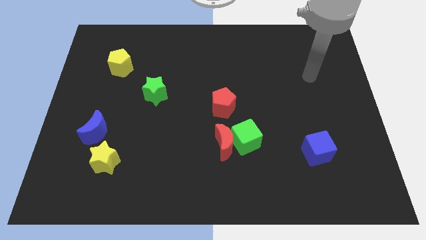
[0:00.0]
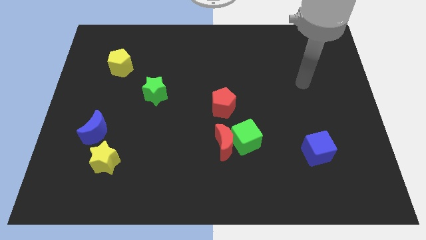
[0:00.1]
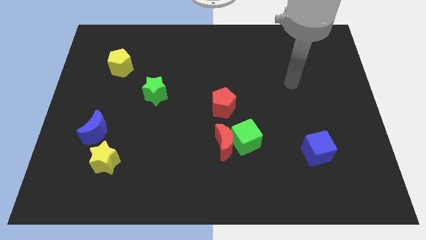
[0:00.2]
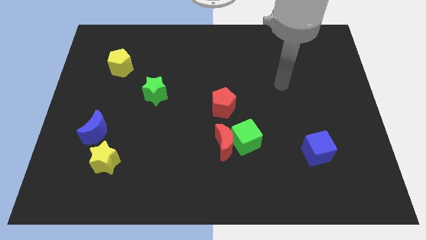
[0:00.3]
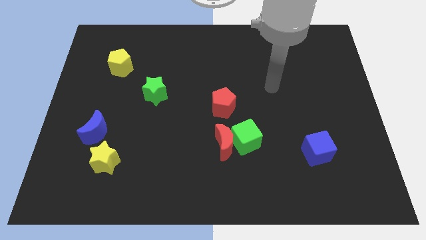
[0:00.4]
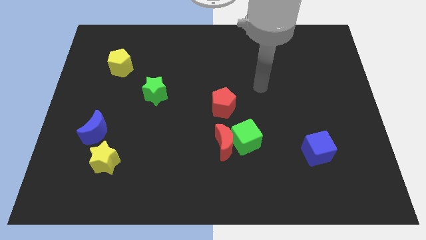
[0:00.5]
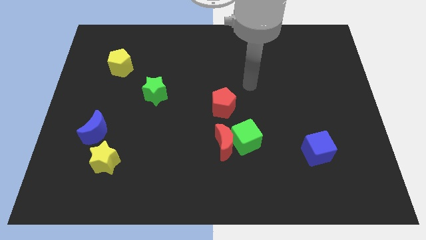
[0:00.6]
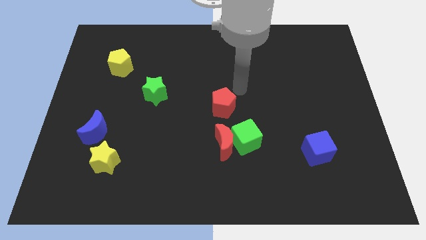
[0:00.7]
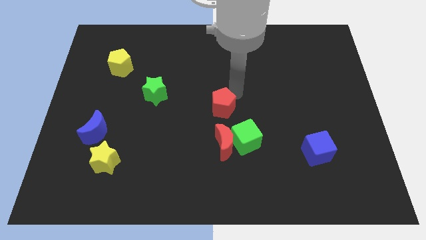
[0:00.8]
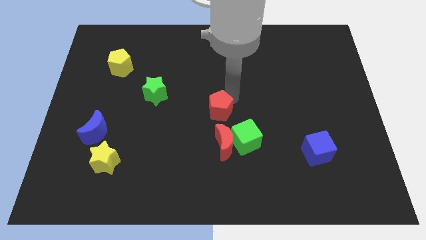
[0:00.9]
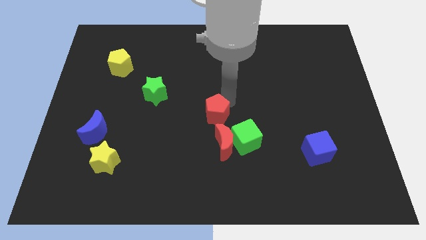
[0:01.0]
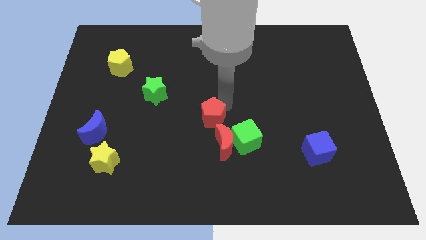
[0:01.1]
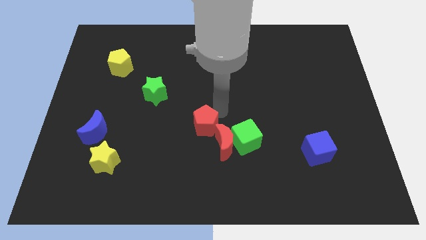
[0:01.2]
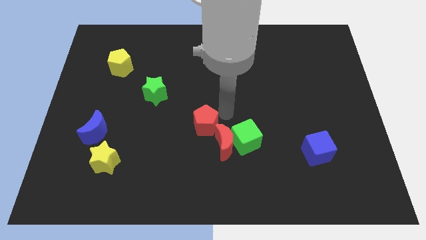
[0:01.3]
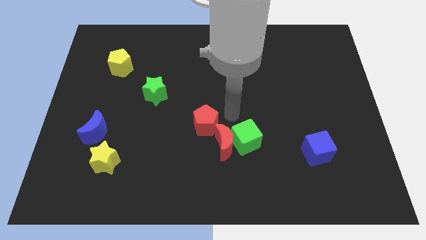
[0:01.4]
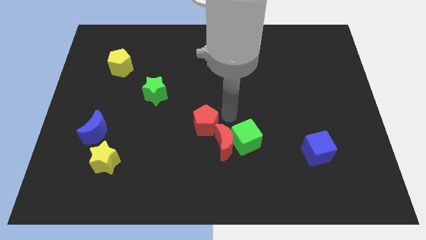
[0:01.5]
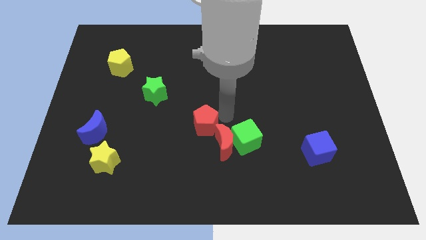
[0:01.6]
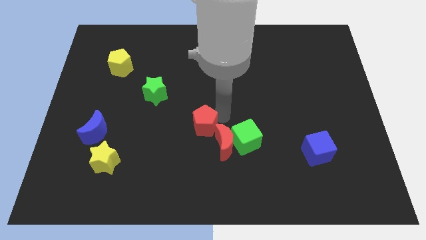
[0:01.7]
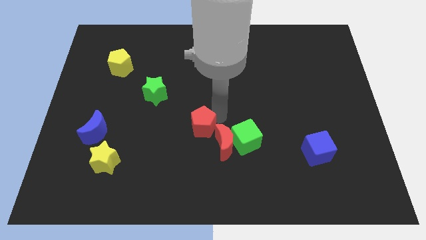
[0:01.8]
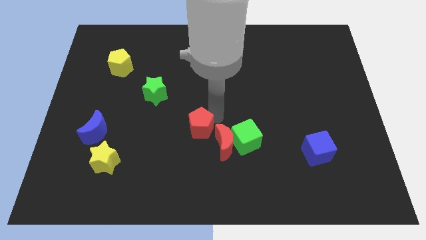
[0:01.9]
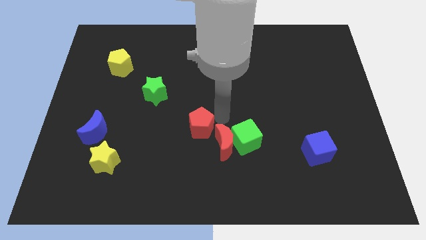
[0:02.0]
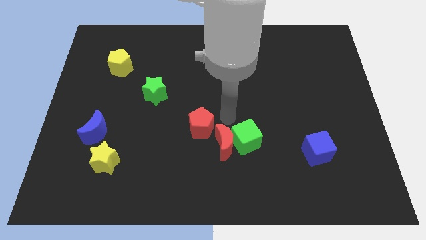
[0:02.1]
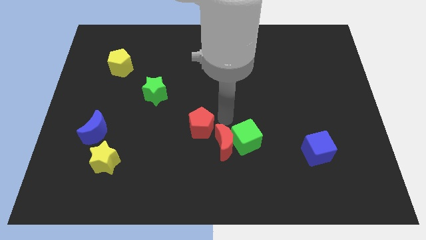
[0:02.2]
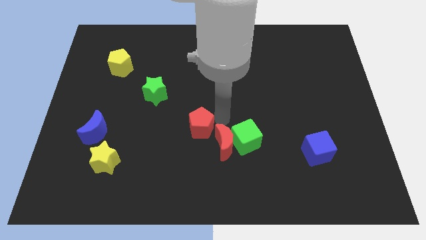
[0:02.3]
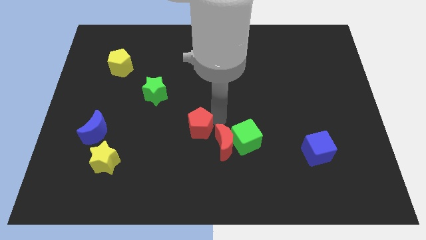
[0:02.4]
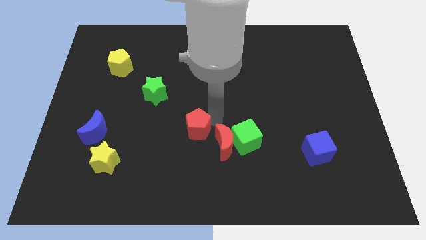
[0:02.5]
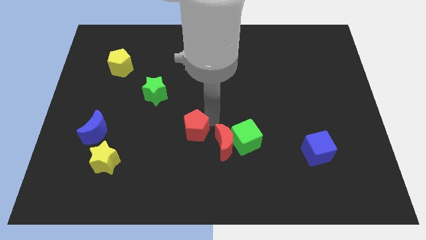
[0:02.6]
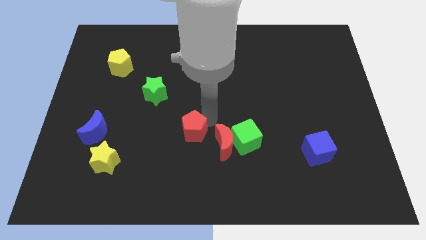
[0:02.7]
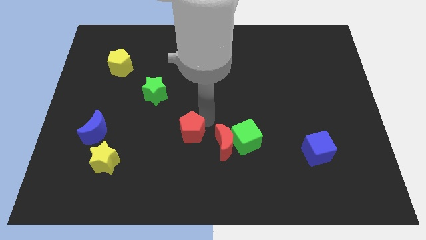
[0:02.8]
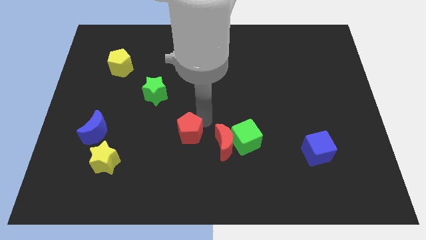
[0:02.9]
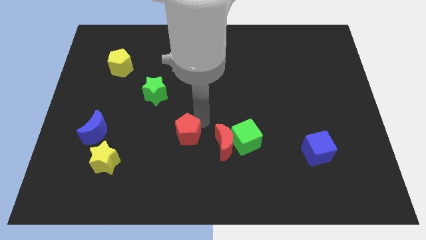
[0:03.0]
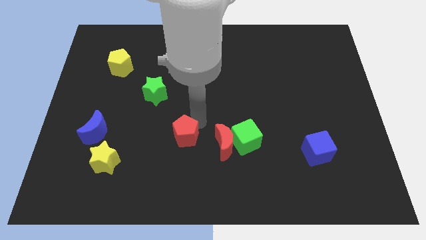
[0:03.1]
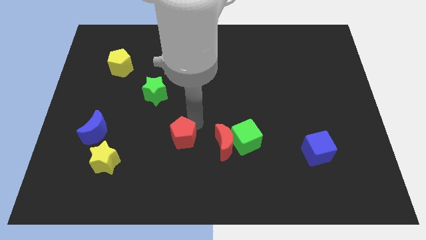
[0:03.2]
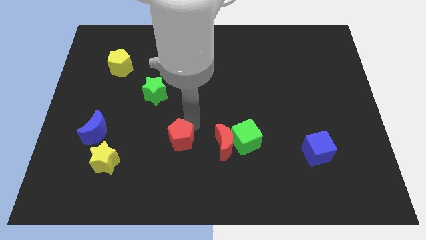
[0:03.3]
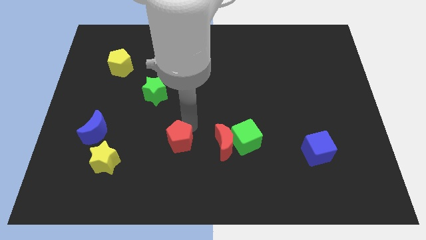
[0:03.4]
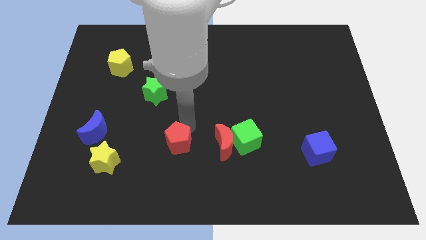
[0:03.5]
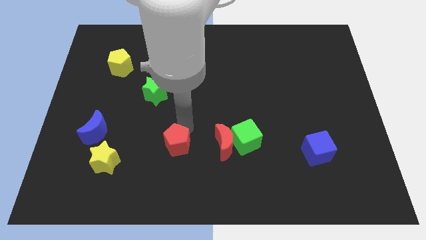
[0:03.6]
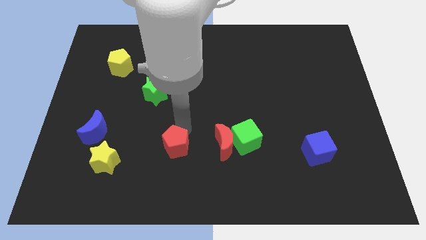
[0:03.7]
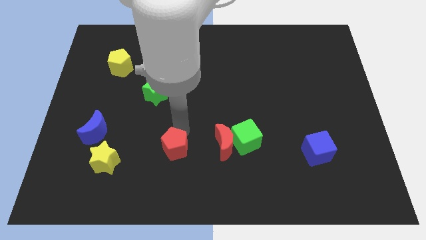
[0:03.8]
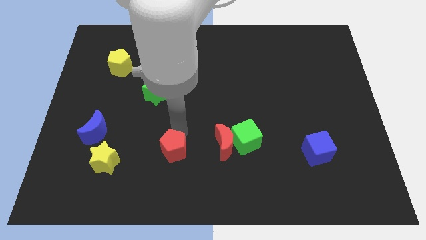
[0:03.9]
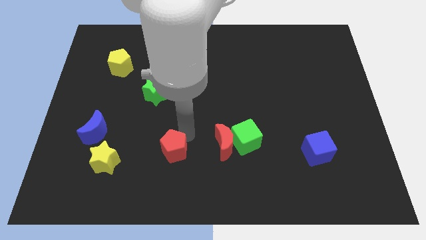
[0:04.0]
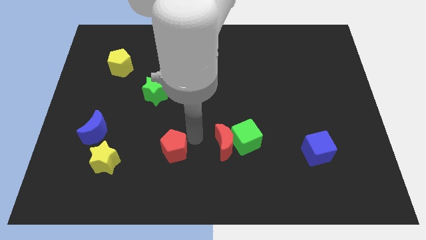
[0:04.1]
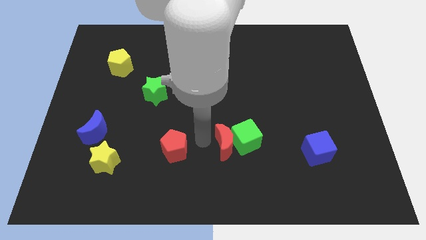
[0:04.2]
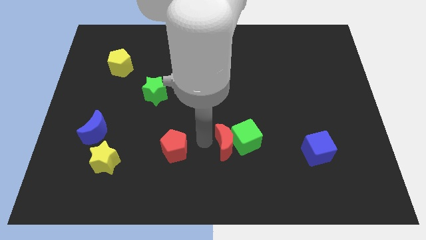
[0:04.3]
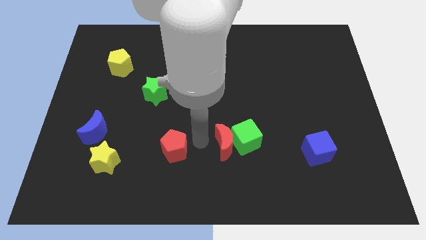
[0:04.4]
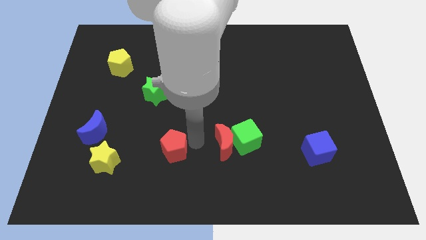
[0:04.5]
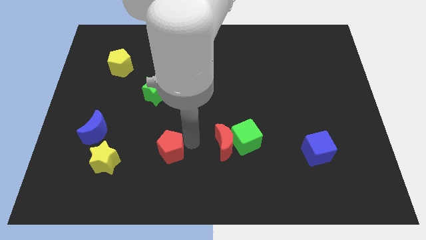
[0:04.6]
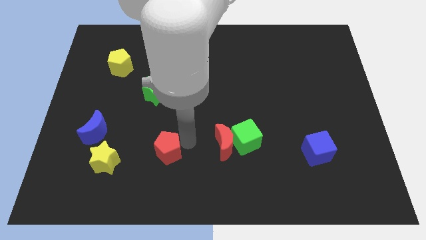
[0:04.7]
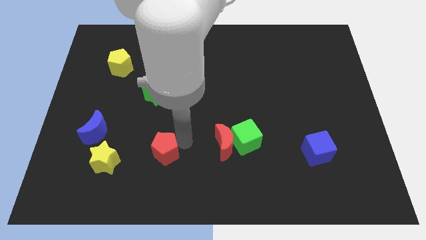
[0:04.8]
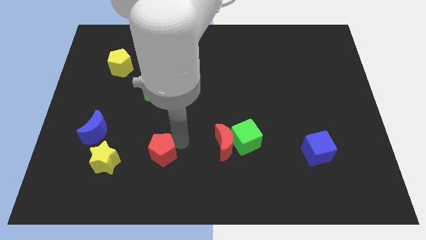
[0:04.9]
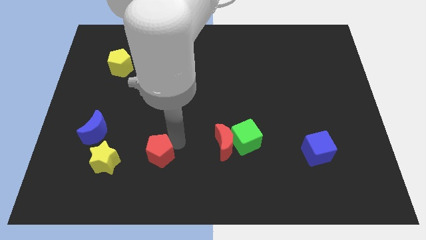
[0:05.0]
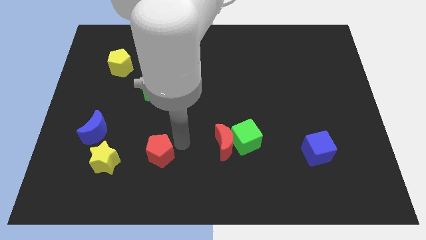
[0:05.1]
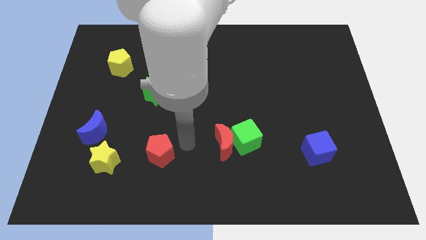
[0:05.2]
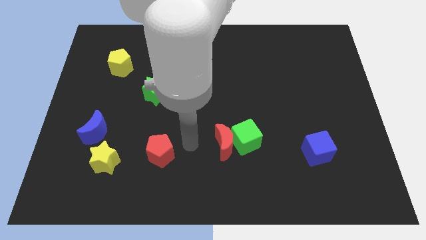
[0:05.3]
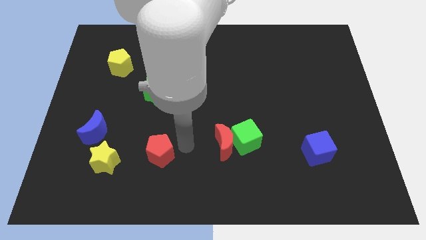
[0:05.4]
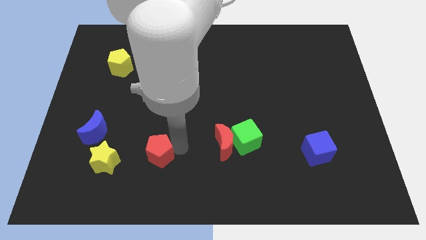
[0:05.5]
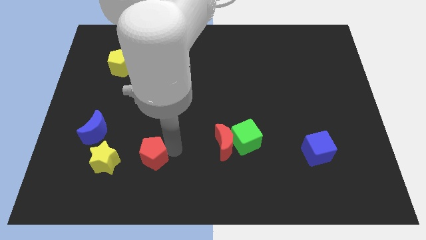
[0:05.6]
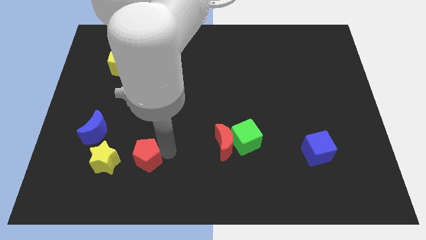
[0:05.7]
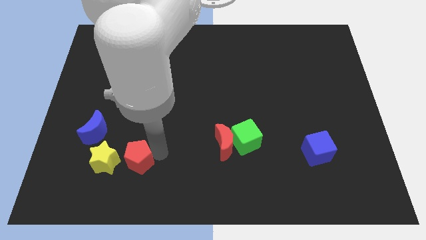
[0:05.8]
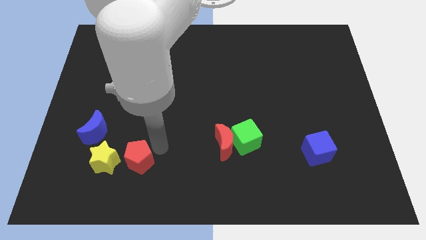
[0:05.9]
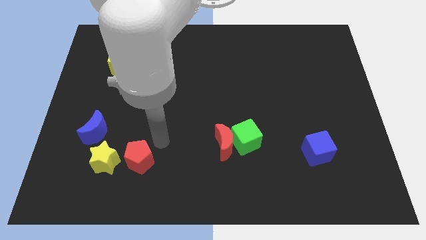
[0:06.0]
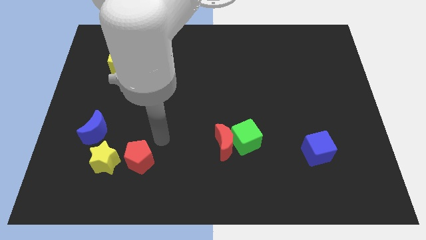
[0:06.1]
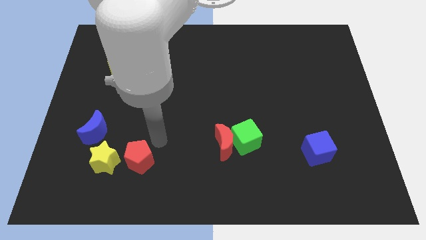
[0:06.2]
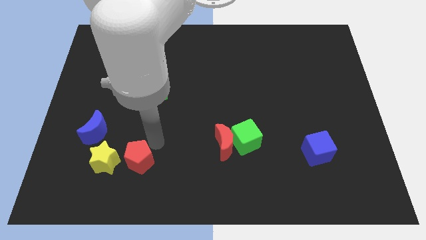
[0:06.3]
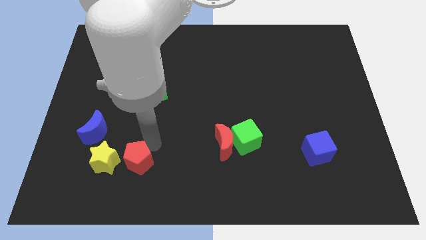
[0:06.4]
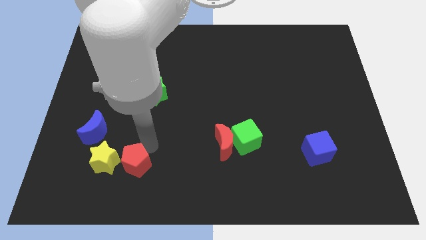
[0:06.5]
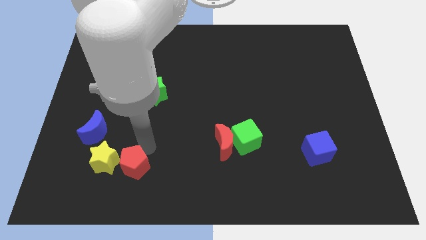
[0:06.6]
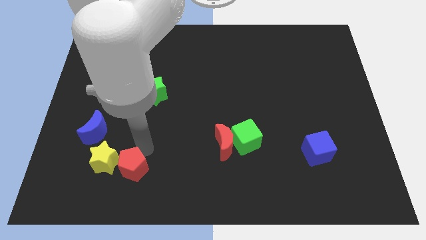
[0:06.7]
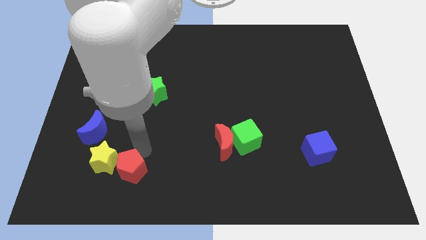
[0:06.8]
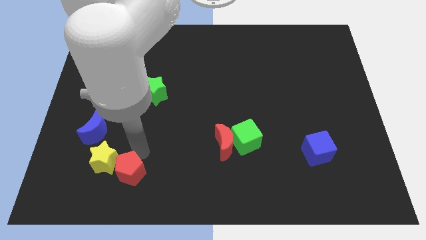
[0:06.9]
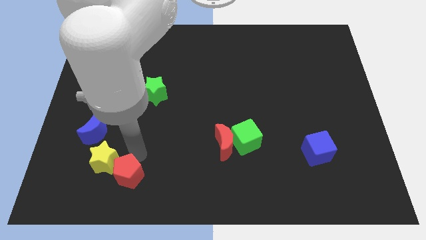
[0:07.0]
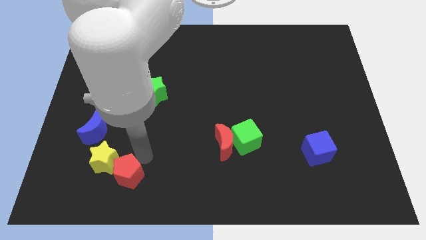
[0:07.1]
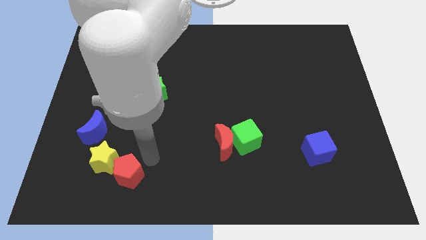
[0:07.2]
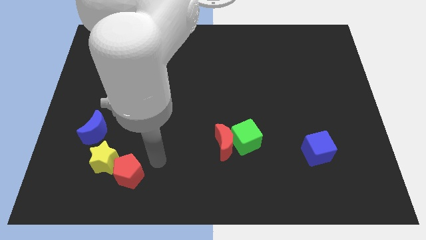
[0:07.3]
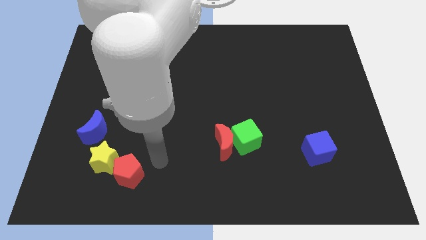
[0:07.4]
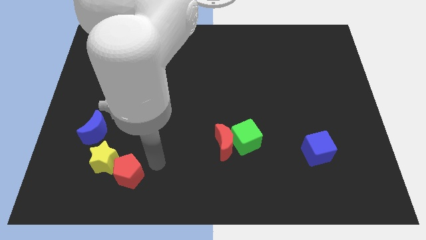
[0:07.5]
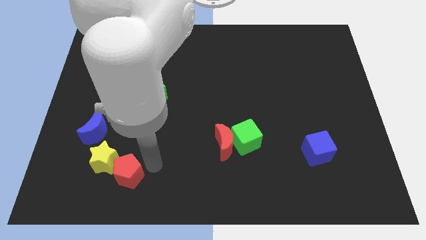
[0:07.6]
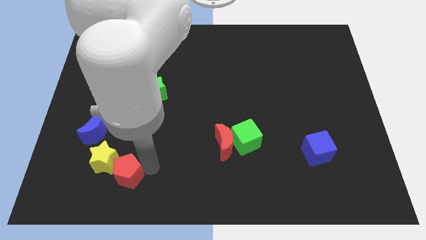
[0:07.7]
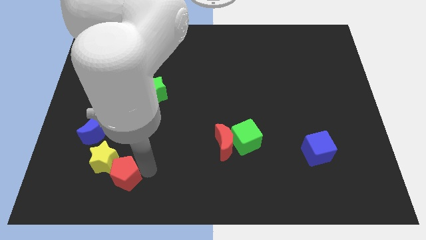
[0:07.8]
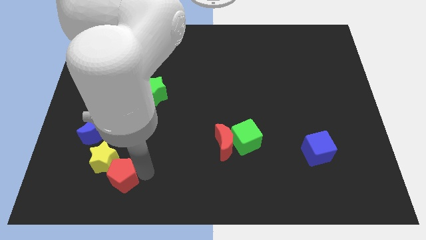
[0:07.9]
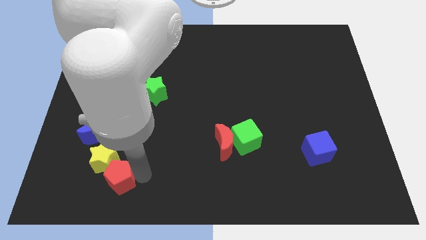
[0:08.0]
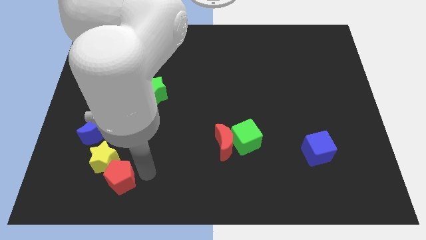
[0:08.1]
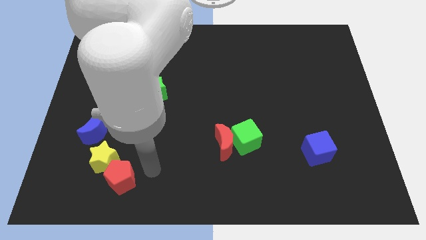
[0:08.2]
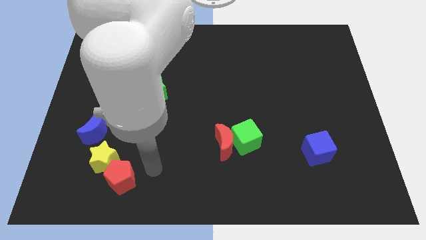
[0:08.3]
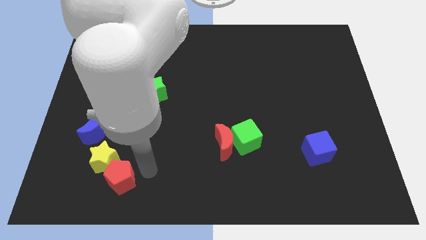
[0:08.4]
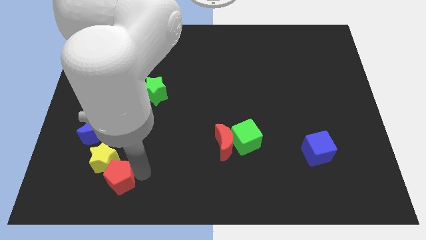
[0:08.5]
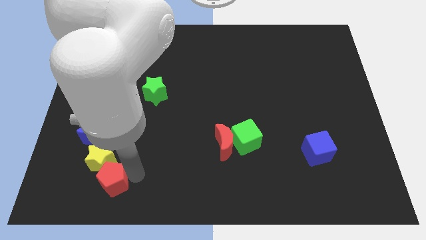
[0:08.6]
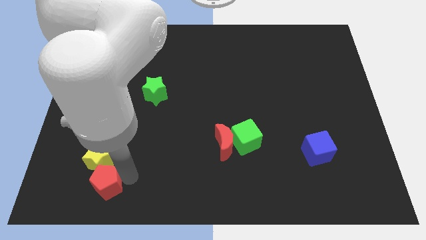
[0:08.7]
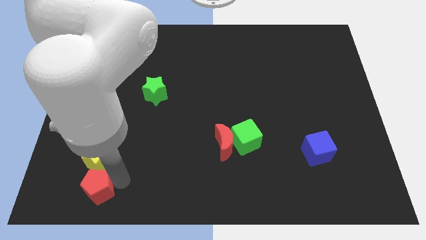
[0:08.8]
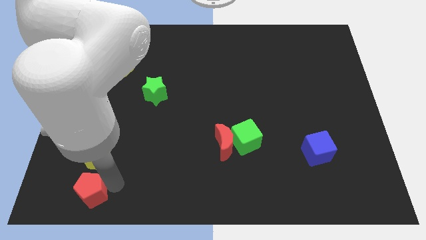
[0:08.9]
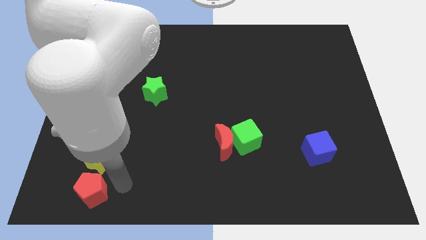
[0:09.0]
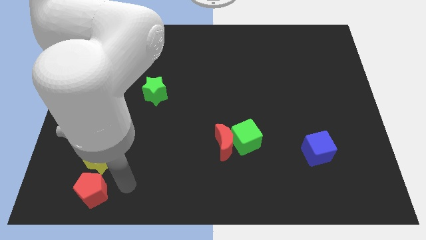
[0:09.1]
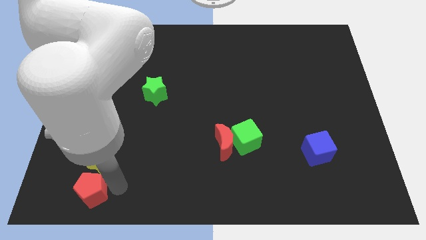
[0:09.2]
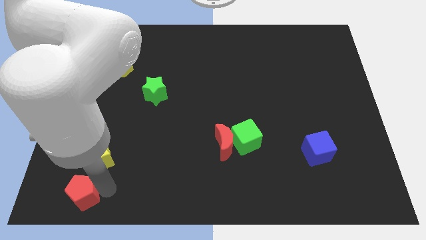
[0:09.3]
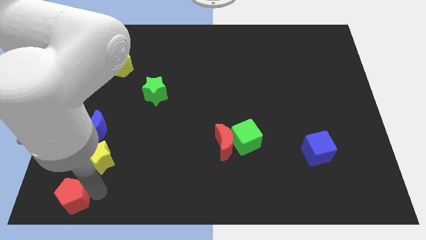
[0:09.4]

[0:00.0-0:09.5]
slide the red pentagon to the lower left corner
